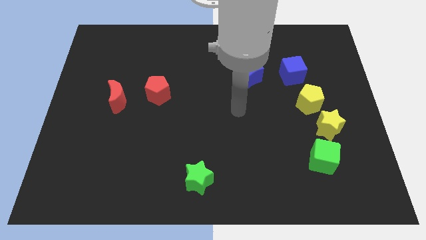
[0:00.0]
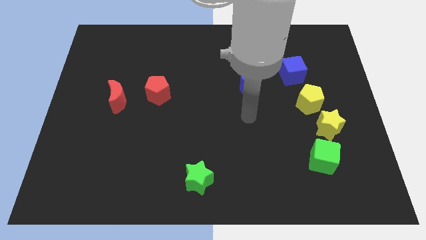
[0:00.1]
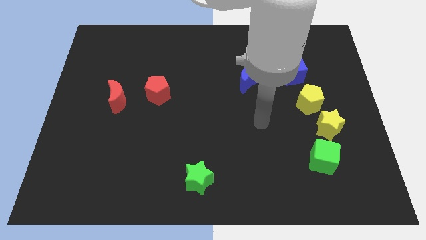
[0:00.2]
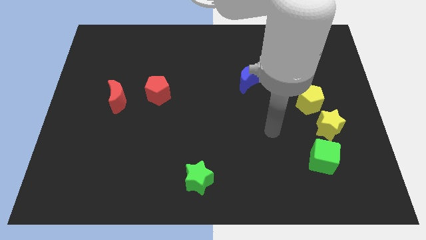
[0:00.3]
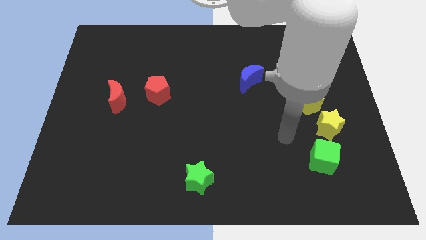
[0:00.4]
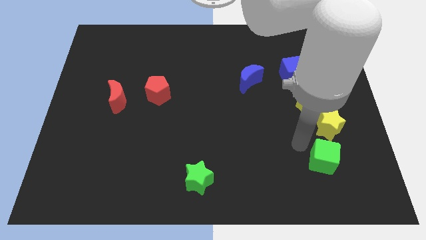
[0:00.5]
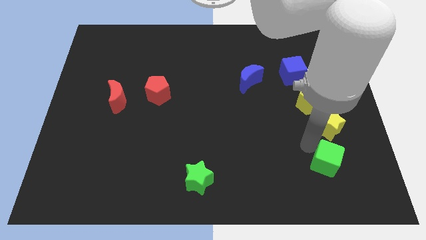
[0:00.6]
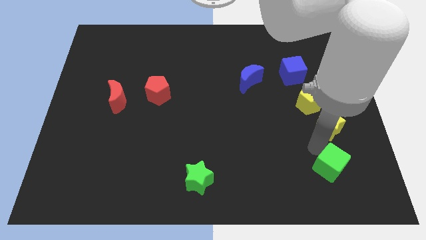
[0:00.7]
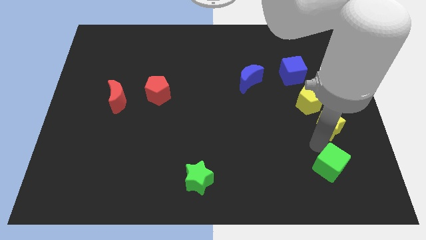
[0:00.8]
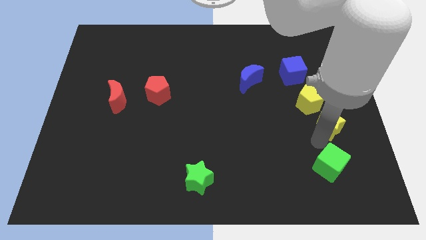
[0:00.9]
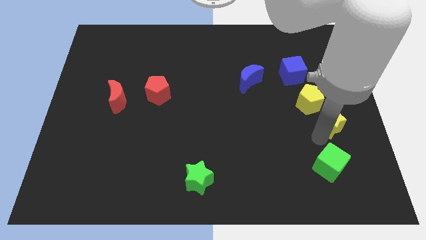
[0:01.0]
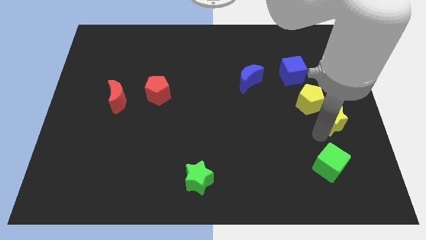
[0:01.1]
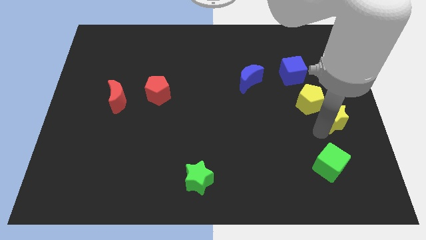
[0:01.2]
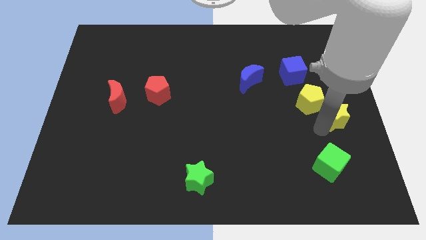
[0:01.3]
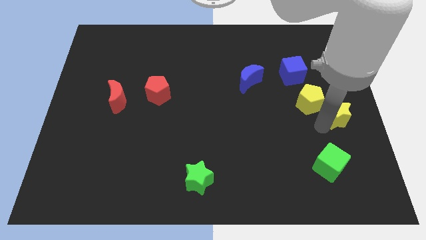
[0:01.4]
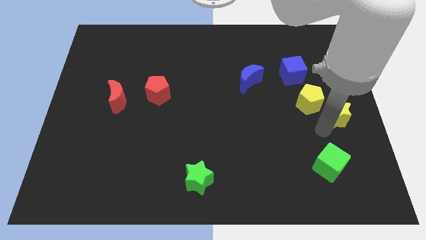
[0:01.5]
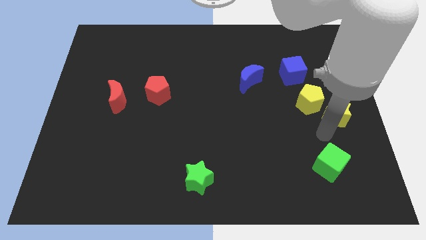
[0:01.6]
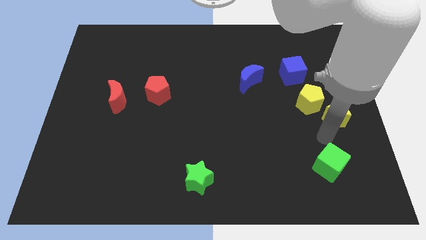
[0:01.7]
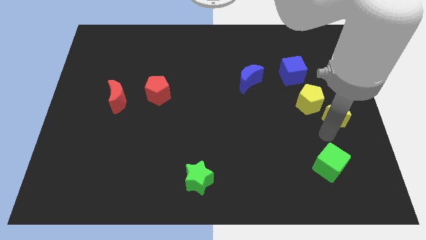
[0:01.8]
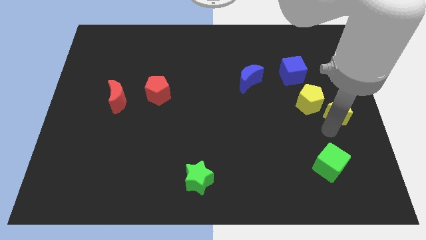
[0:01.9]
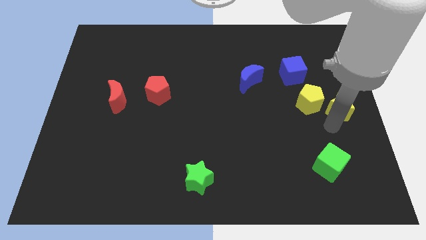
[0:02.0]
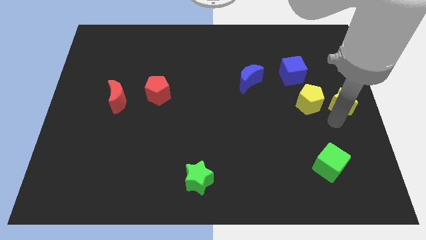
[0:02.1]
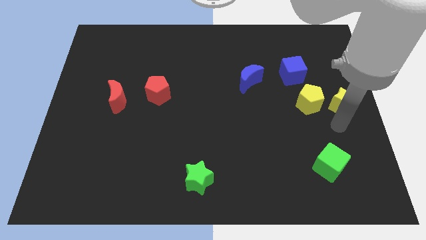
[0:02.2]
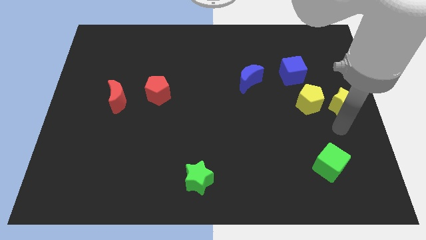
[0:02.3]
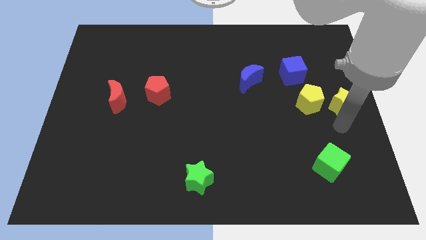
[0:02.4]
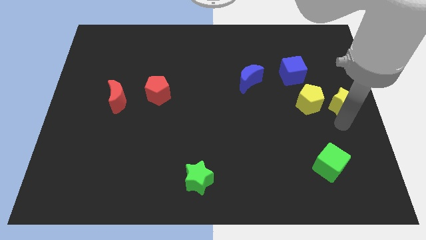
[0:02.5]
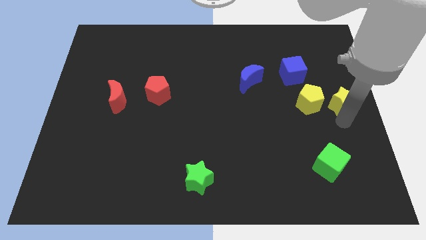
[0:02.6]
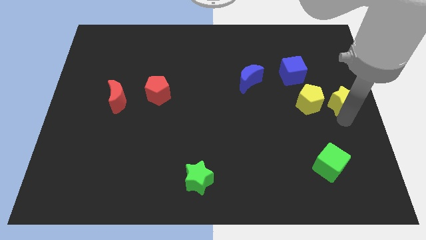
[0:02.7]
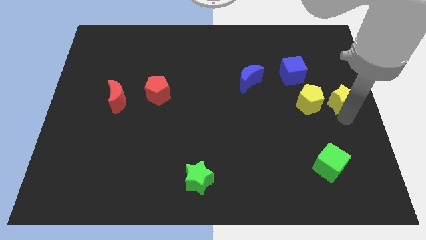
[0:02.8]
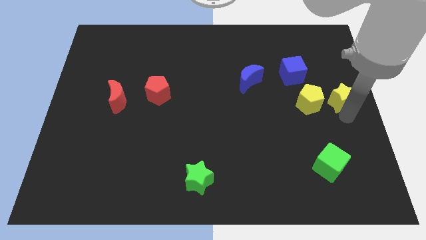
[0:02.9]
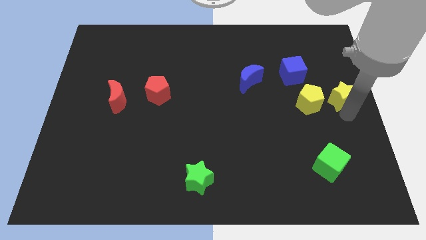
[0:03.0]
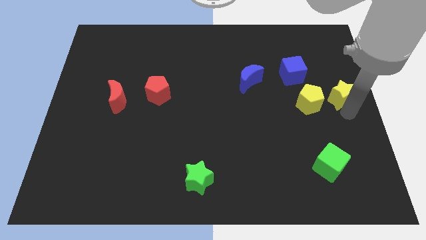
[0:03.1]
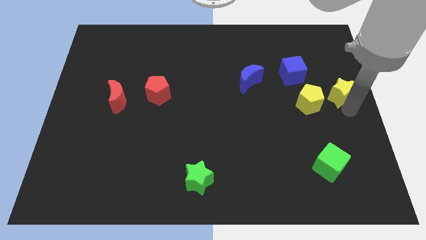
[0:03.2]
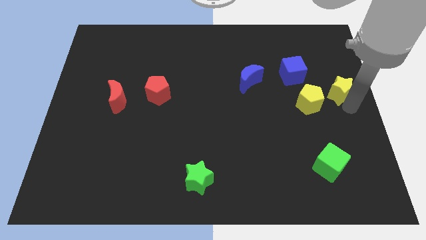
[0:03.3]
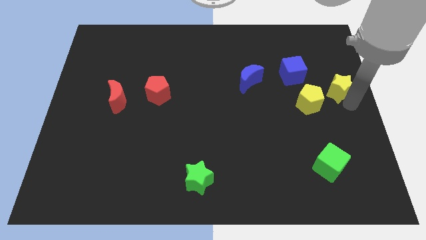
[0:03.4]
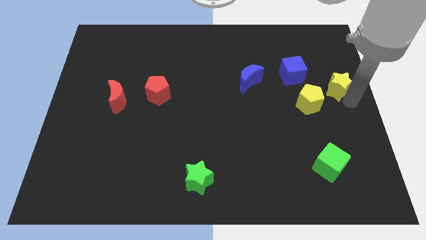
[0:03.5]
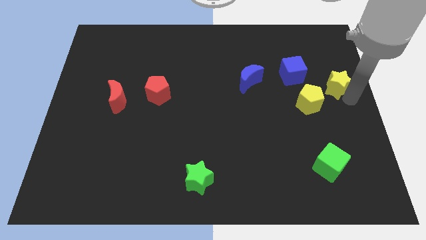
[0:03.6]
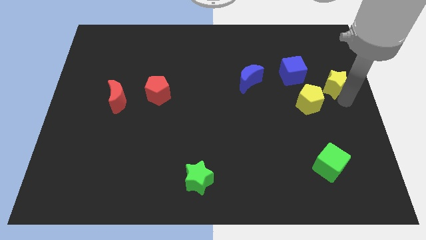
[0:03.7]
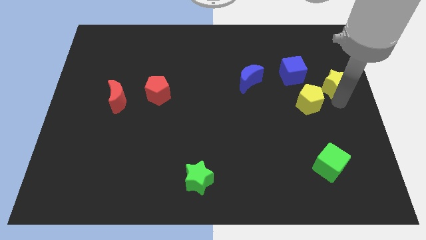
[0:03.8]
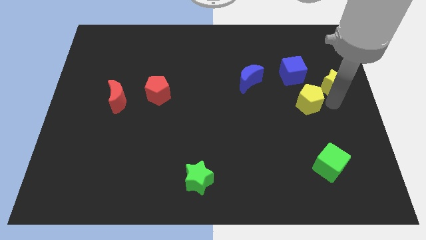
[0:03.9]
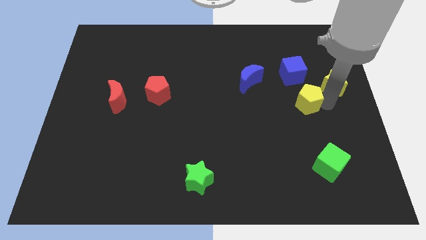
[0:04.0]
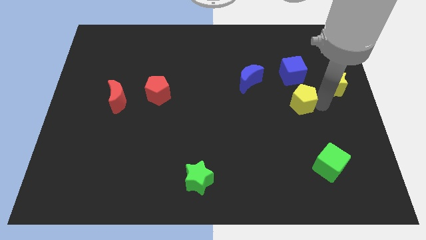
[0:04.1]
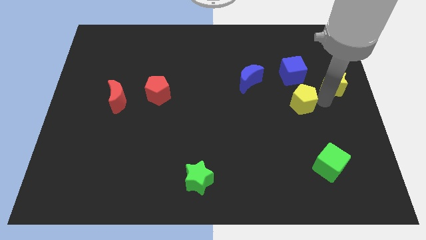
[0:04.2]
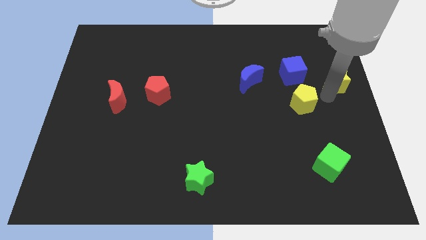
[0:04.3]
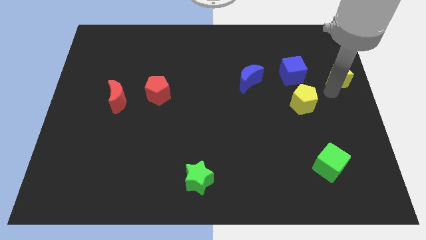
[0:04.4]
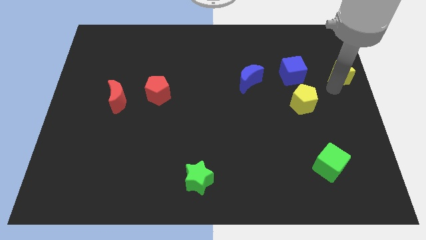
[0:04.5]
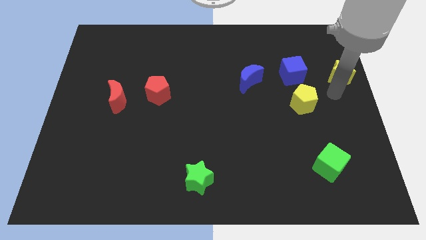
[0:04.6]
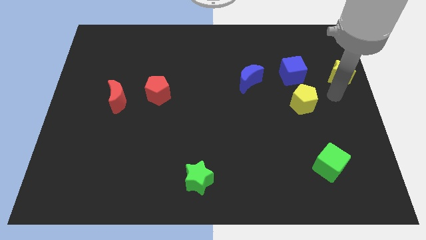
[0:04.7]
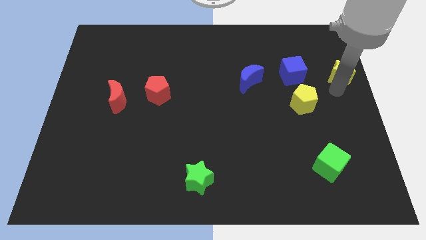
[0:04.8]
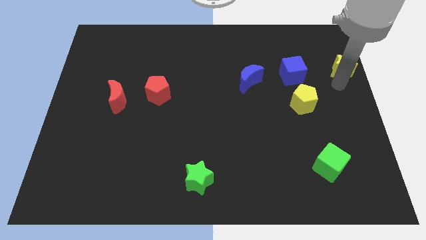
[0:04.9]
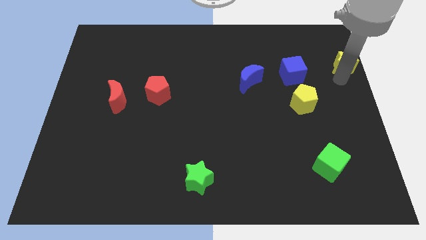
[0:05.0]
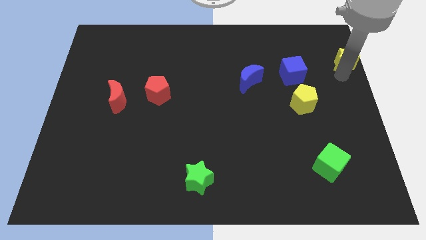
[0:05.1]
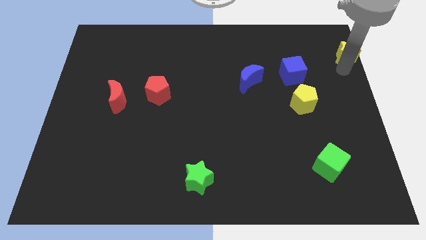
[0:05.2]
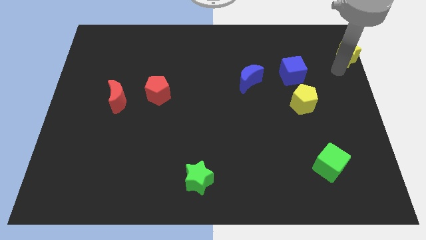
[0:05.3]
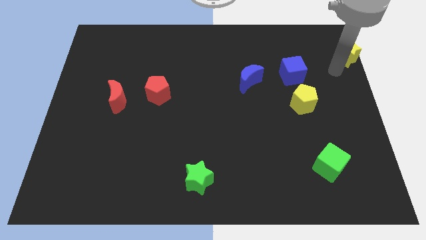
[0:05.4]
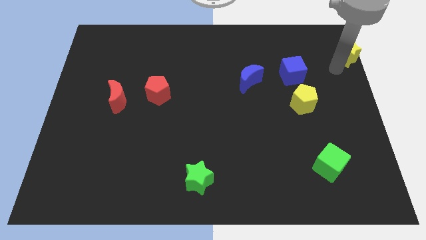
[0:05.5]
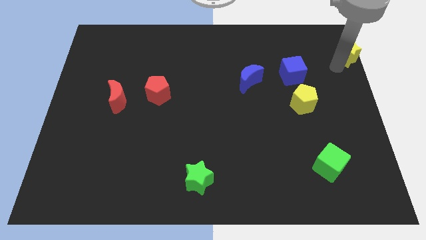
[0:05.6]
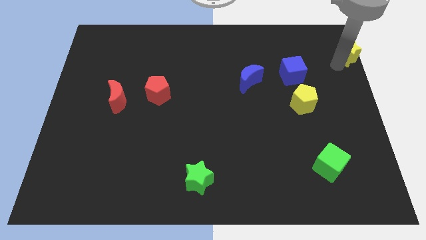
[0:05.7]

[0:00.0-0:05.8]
push the yellow star to the upper right corner

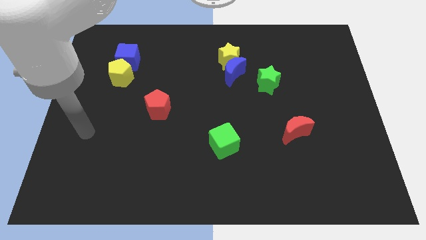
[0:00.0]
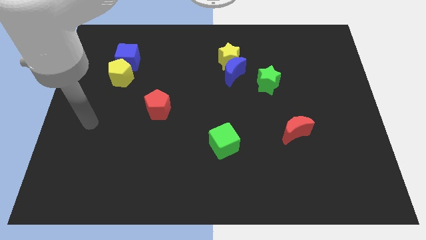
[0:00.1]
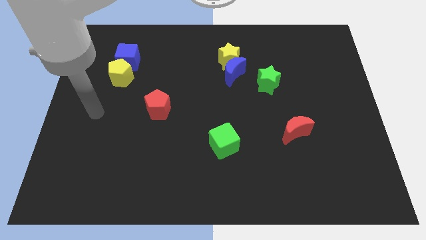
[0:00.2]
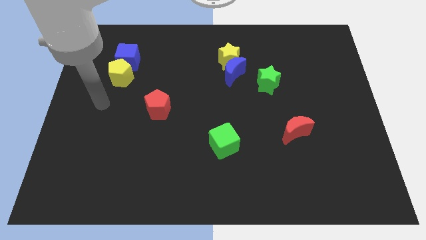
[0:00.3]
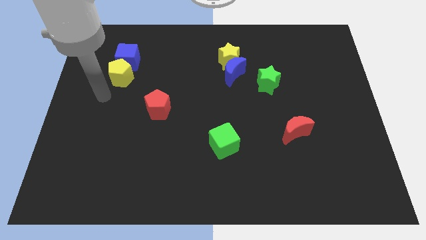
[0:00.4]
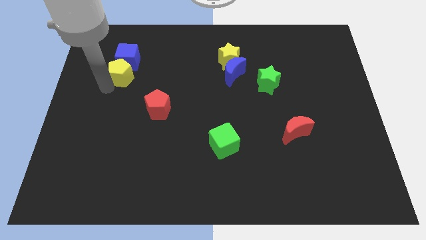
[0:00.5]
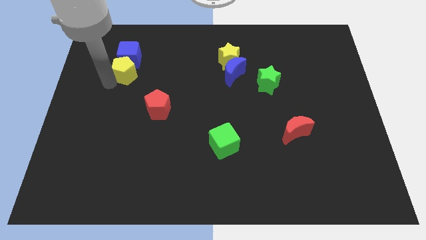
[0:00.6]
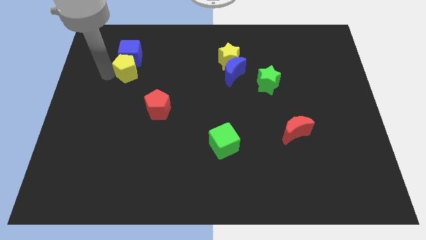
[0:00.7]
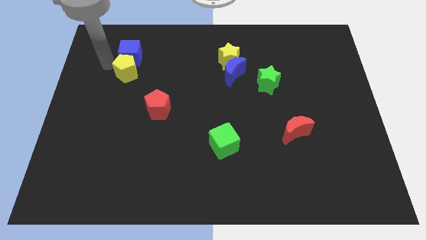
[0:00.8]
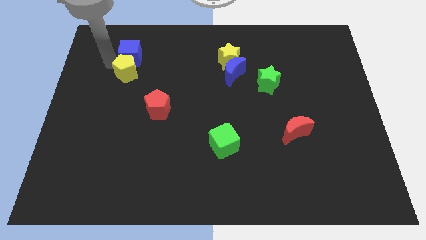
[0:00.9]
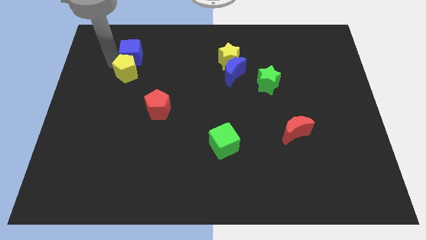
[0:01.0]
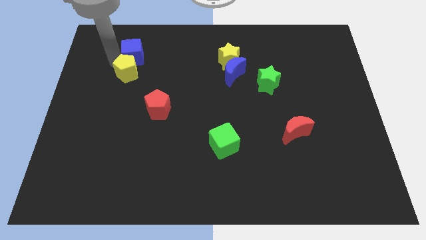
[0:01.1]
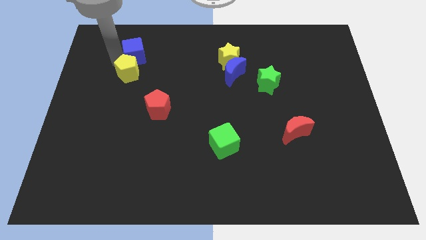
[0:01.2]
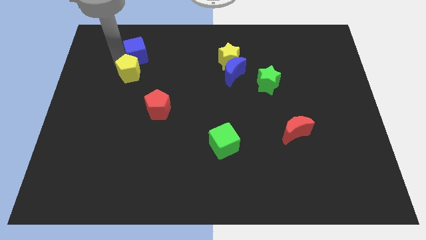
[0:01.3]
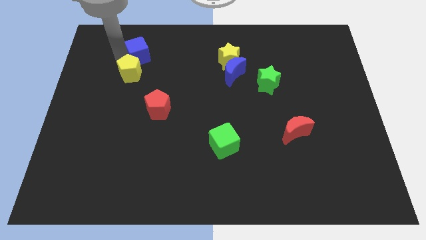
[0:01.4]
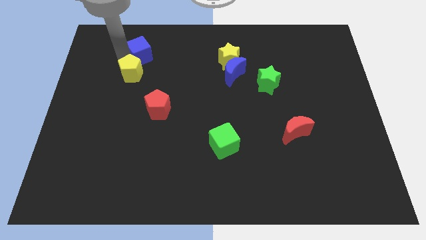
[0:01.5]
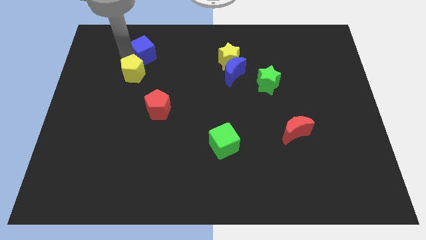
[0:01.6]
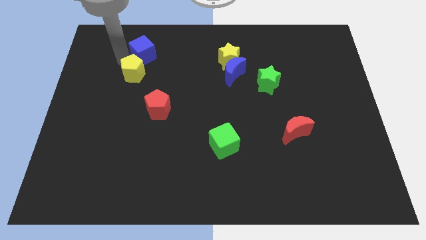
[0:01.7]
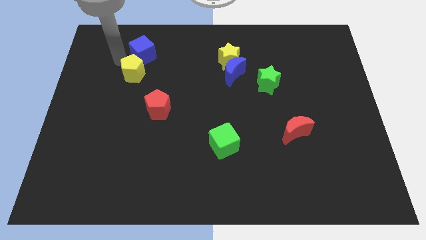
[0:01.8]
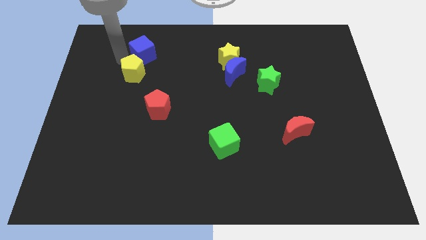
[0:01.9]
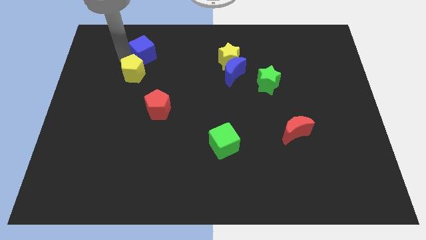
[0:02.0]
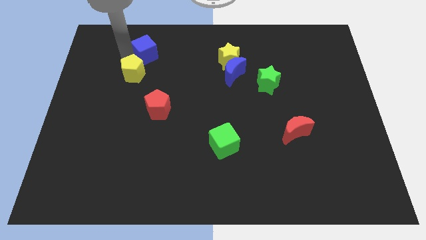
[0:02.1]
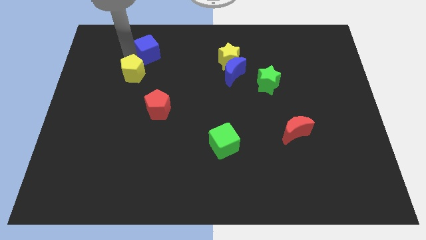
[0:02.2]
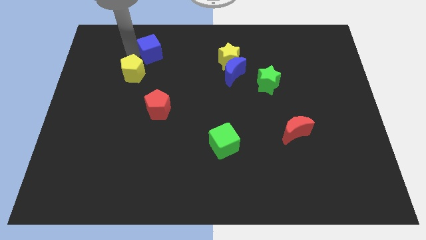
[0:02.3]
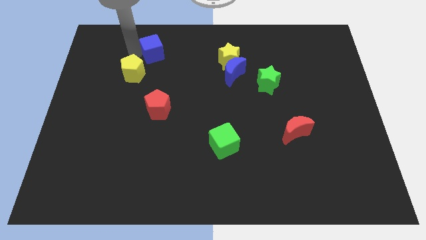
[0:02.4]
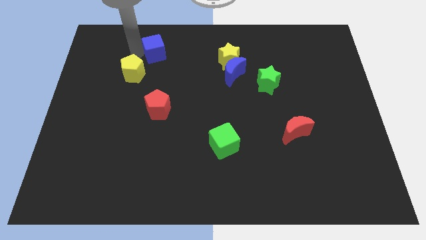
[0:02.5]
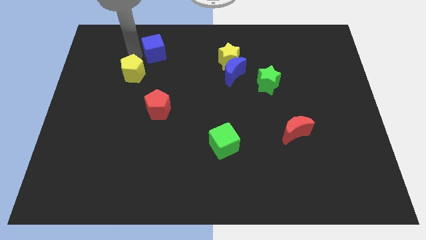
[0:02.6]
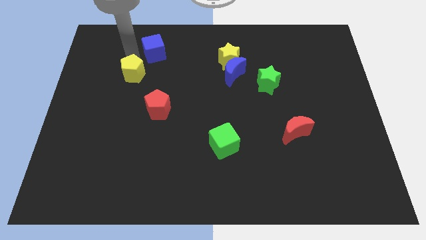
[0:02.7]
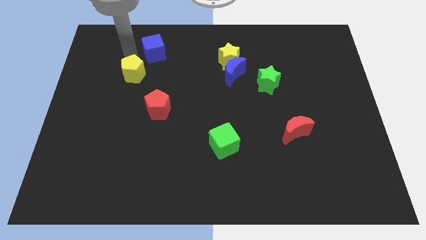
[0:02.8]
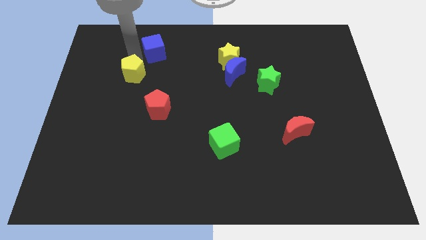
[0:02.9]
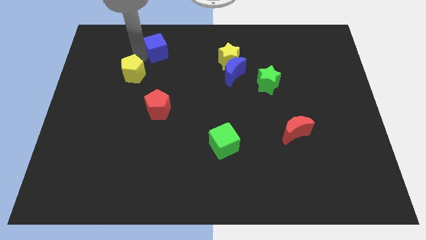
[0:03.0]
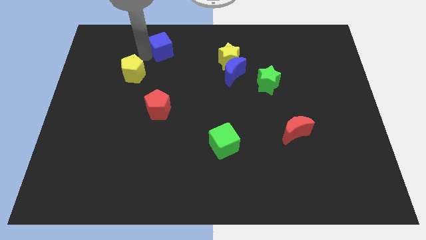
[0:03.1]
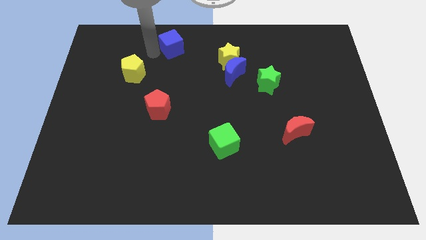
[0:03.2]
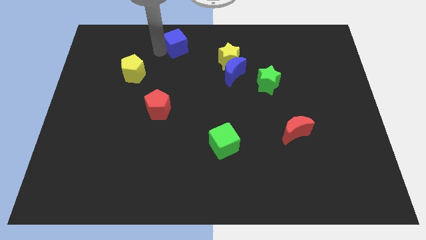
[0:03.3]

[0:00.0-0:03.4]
push the blue cube to the top
